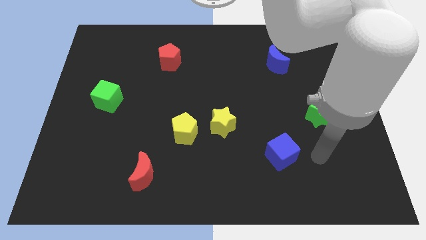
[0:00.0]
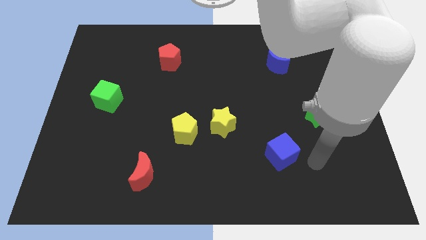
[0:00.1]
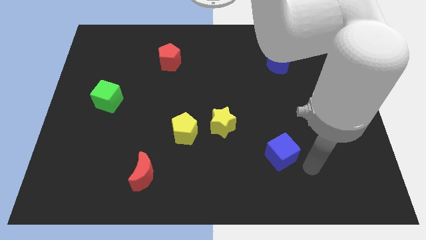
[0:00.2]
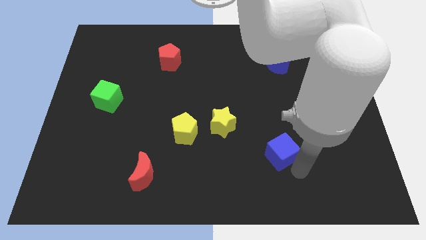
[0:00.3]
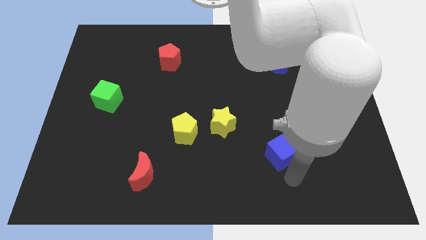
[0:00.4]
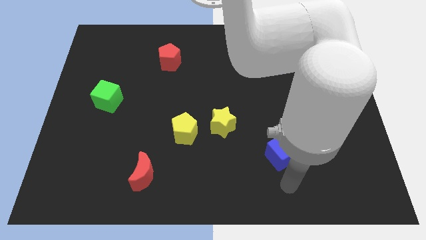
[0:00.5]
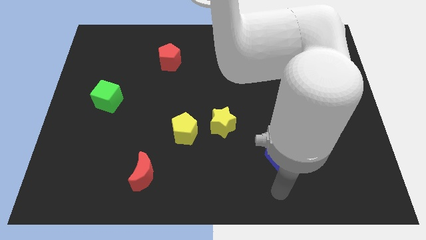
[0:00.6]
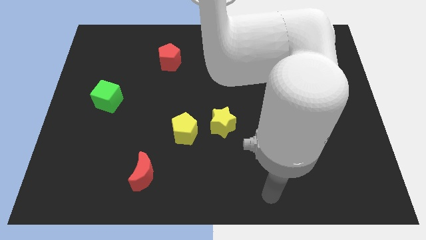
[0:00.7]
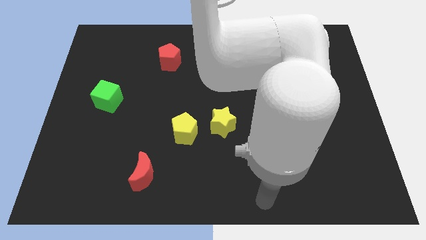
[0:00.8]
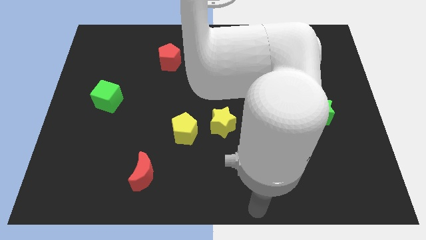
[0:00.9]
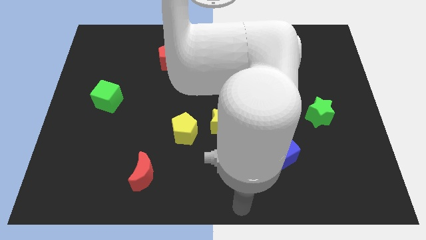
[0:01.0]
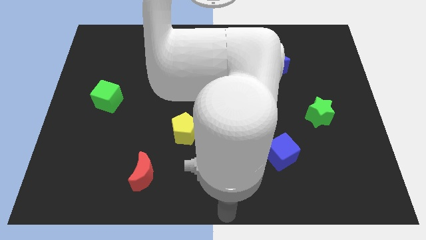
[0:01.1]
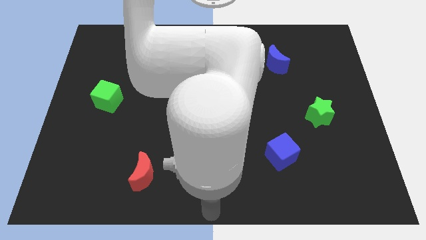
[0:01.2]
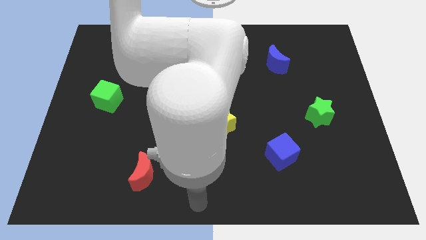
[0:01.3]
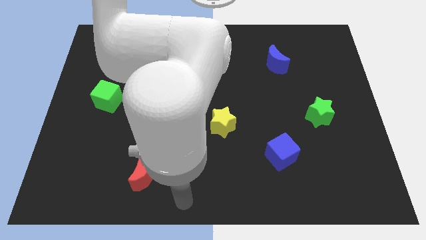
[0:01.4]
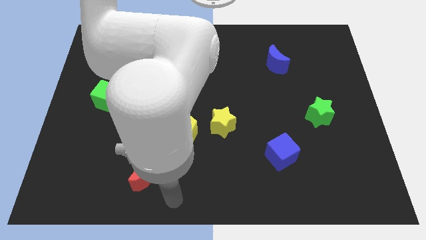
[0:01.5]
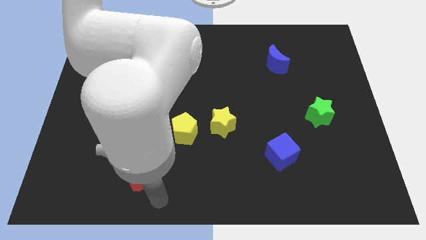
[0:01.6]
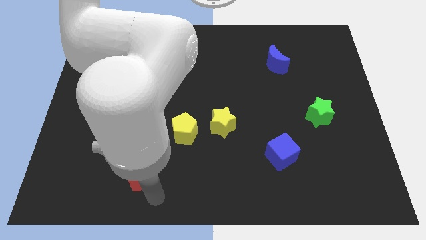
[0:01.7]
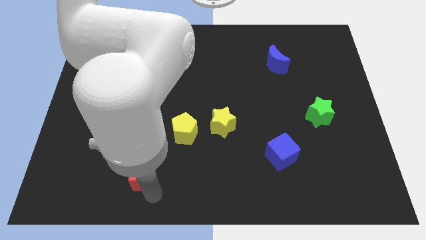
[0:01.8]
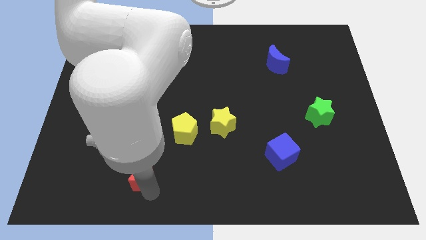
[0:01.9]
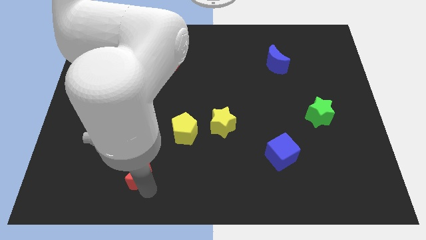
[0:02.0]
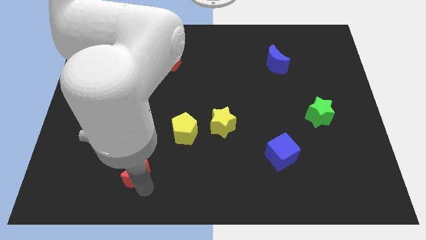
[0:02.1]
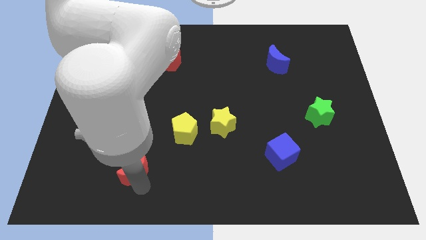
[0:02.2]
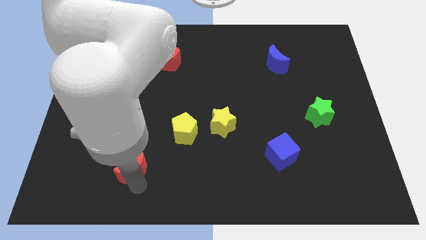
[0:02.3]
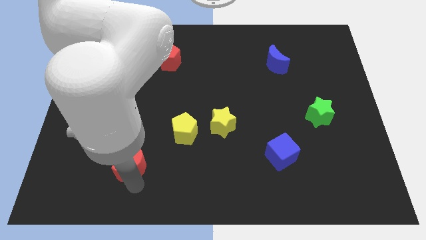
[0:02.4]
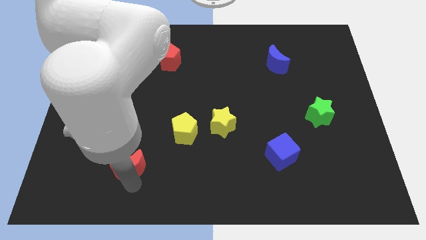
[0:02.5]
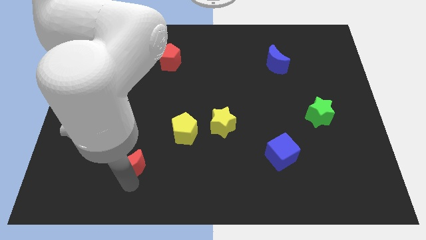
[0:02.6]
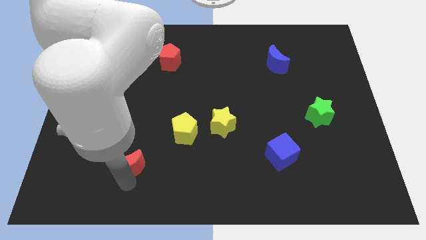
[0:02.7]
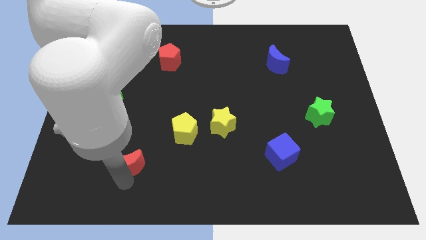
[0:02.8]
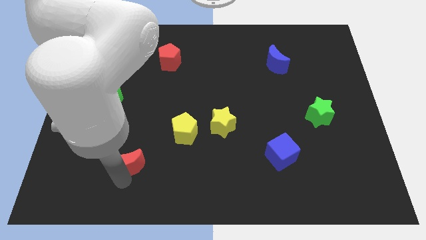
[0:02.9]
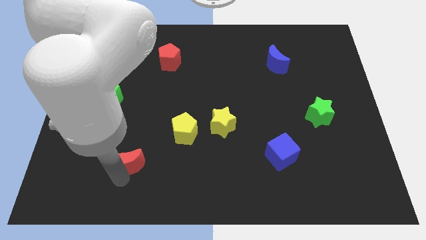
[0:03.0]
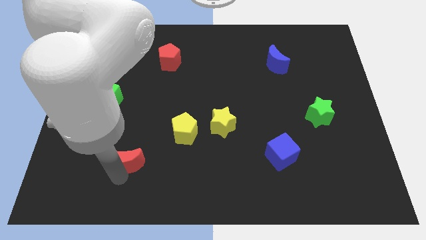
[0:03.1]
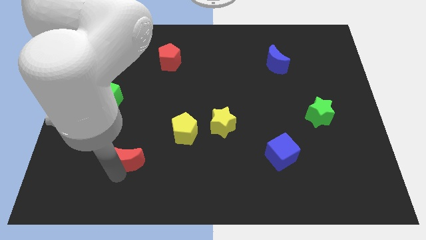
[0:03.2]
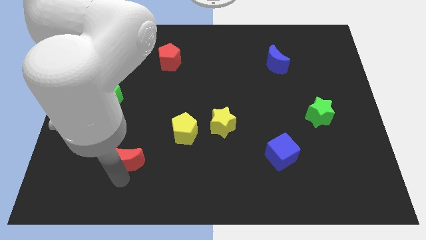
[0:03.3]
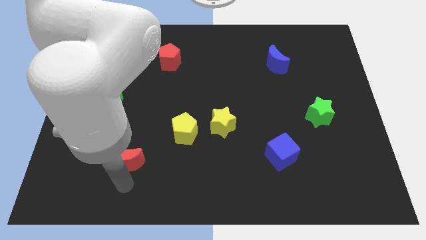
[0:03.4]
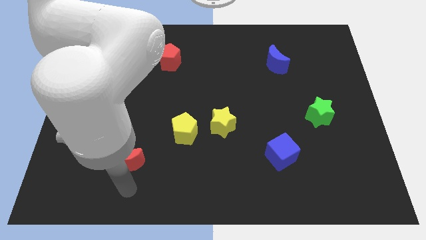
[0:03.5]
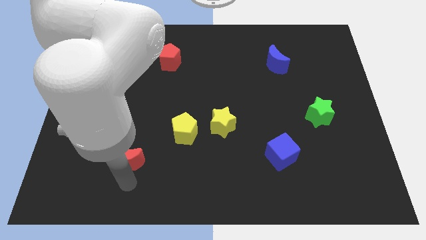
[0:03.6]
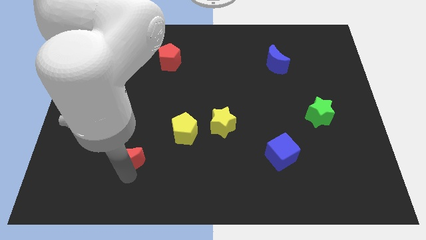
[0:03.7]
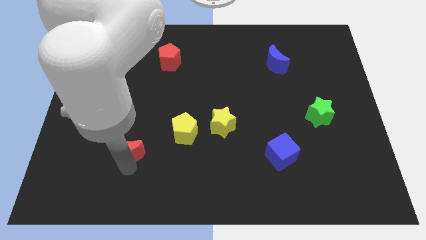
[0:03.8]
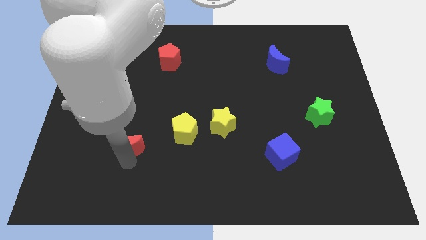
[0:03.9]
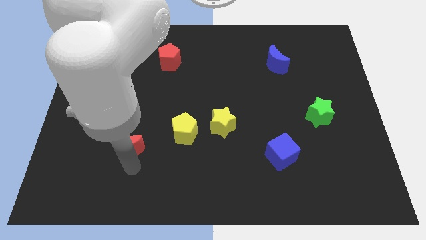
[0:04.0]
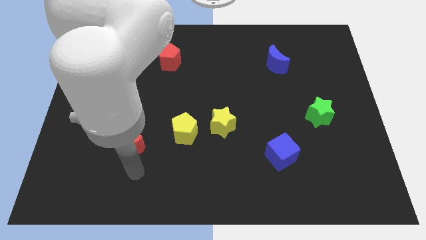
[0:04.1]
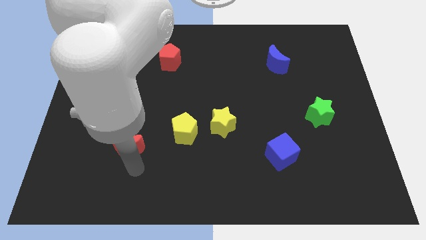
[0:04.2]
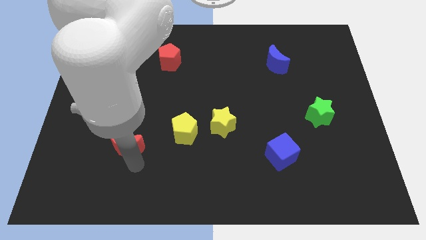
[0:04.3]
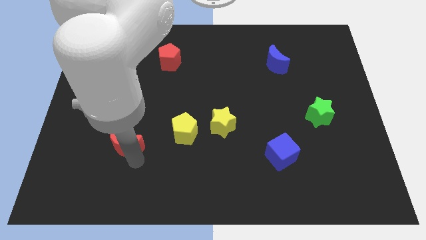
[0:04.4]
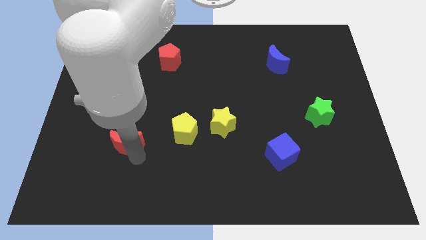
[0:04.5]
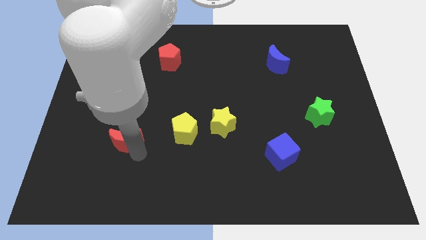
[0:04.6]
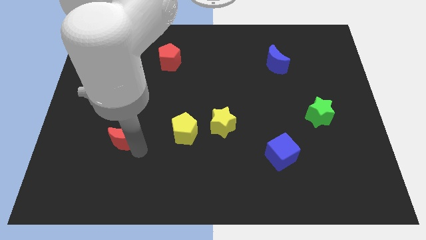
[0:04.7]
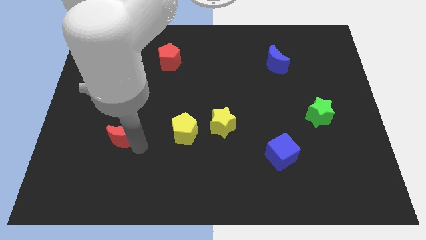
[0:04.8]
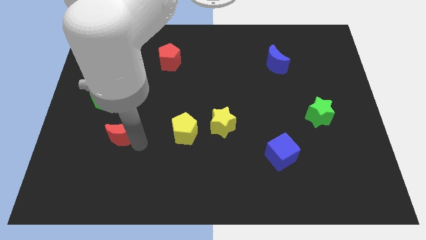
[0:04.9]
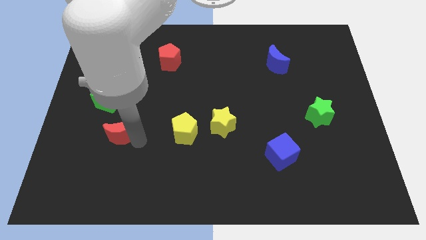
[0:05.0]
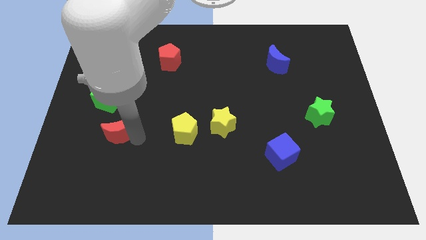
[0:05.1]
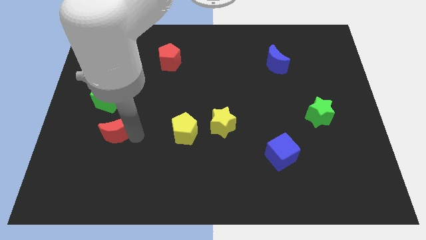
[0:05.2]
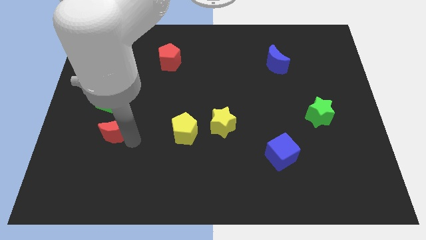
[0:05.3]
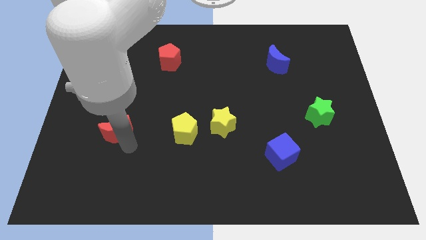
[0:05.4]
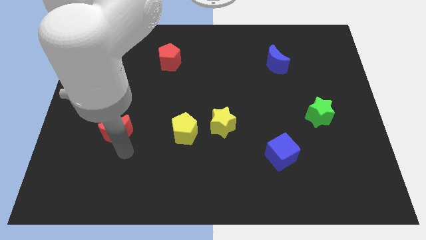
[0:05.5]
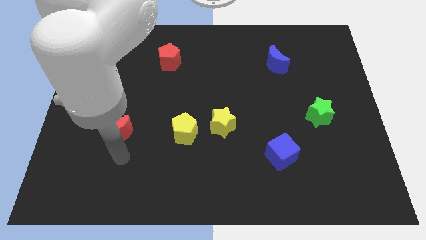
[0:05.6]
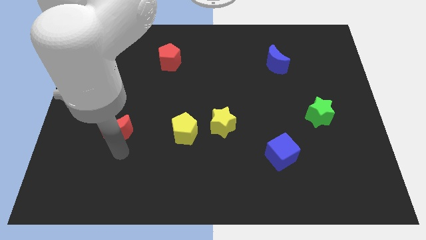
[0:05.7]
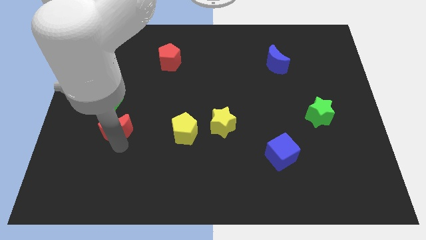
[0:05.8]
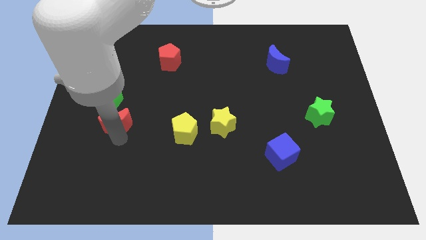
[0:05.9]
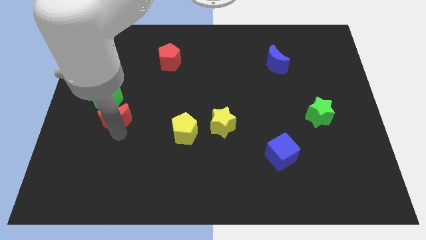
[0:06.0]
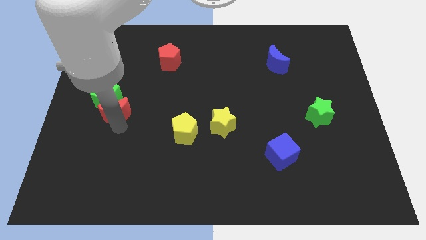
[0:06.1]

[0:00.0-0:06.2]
push the red moon close to the green cube

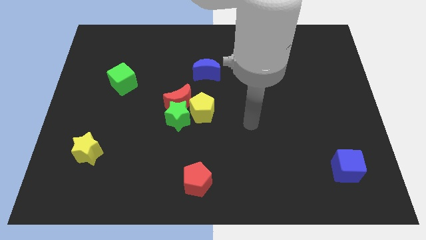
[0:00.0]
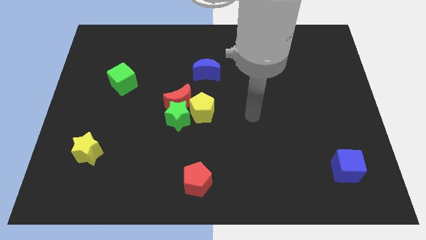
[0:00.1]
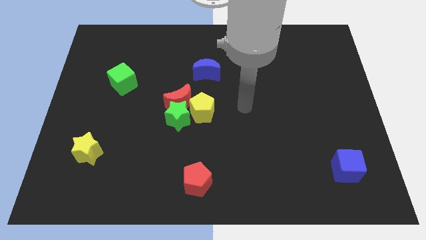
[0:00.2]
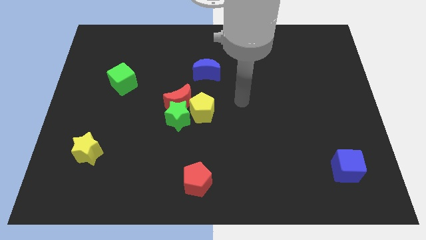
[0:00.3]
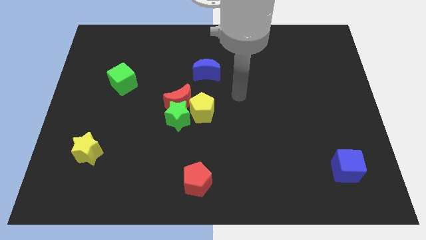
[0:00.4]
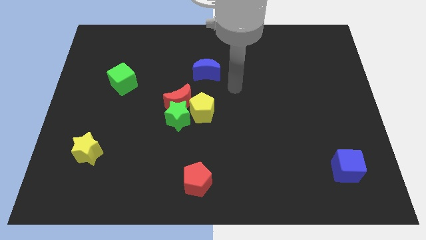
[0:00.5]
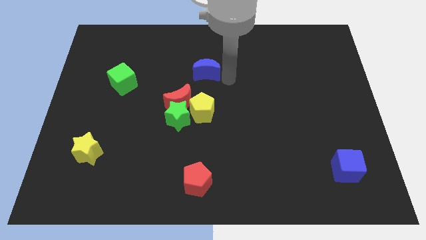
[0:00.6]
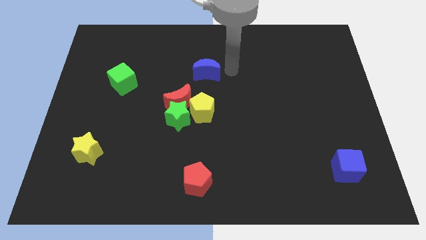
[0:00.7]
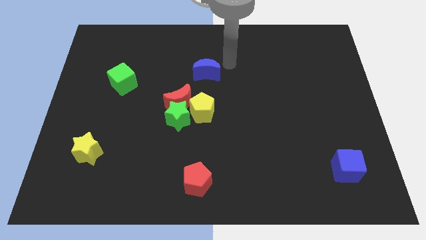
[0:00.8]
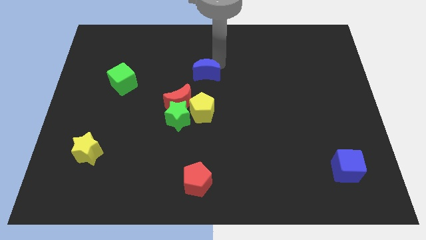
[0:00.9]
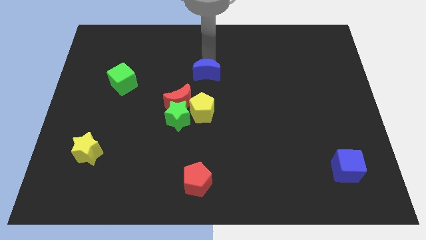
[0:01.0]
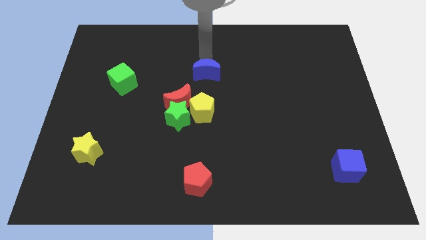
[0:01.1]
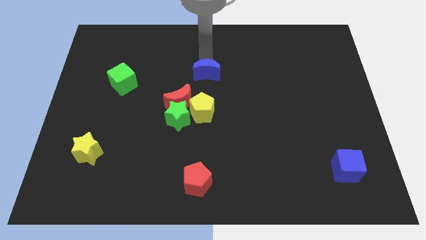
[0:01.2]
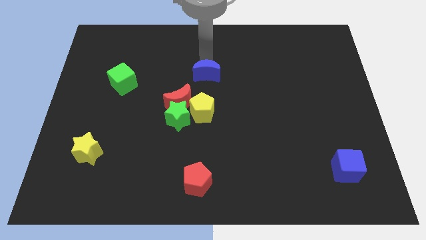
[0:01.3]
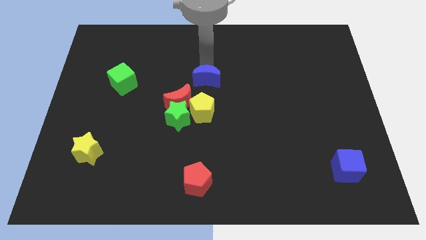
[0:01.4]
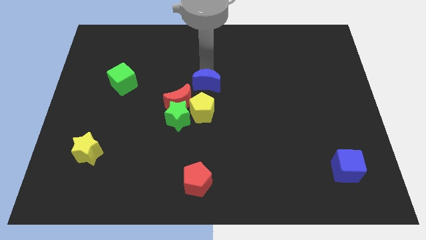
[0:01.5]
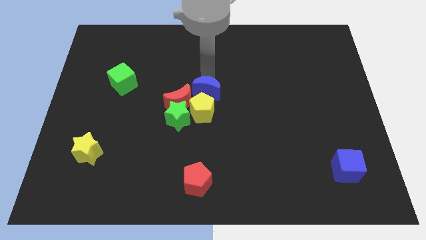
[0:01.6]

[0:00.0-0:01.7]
put the blue moon next to the yellow pentagon
